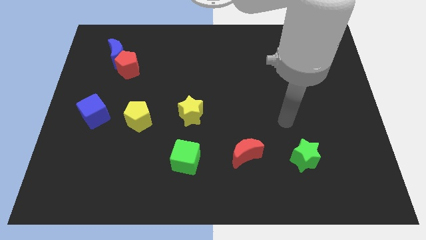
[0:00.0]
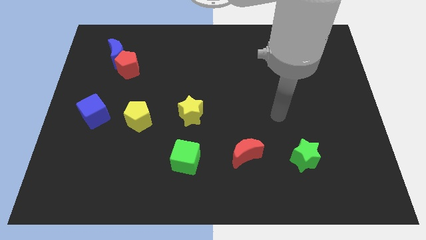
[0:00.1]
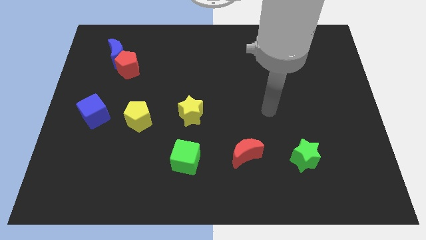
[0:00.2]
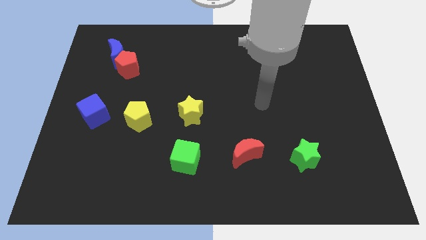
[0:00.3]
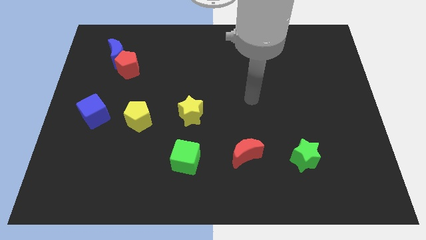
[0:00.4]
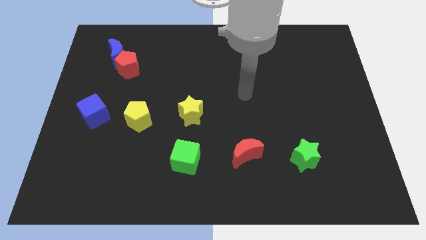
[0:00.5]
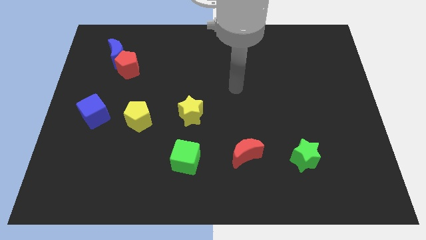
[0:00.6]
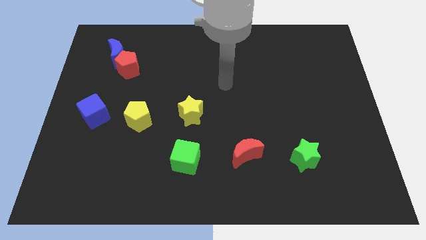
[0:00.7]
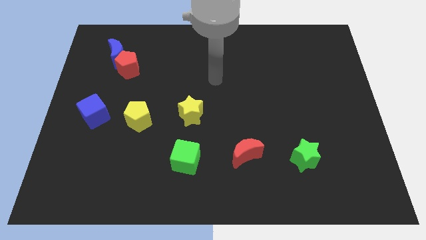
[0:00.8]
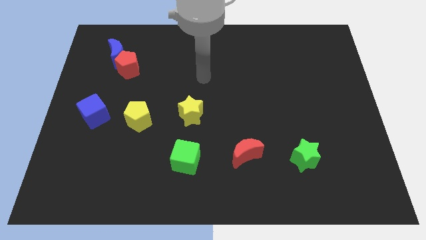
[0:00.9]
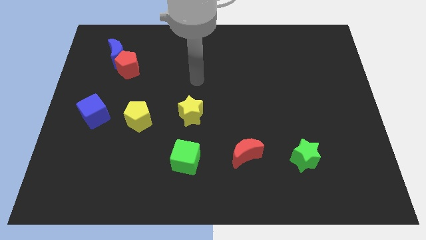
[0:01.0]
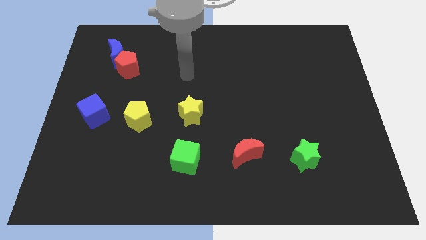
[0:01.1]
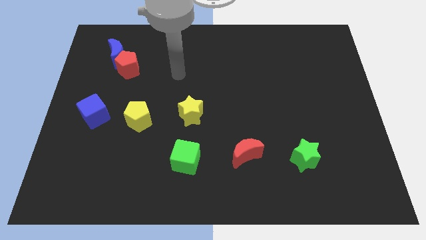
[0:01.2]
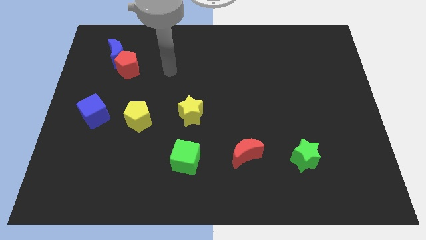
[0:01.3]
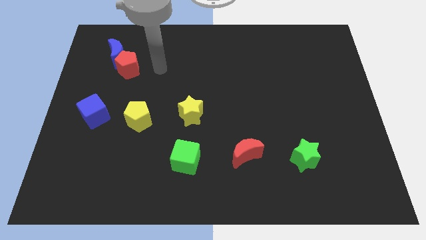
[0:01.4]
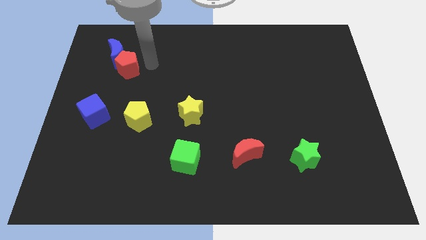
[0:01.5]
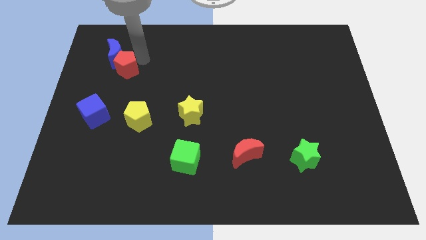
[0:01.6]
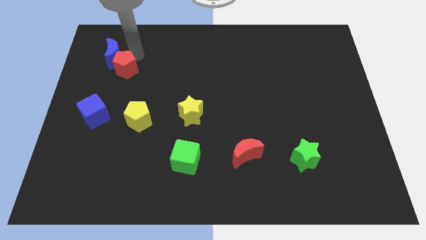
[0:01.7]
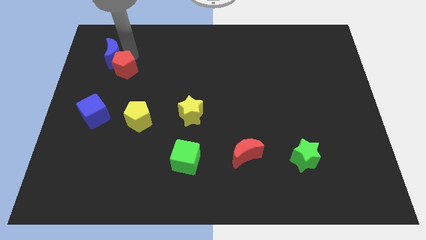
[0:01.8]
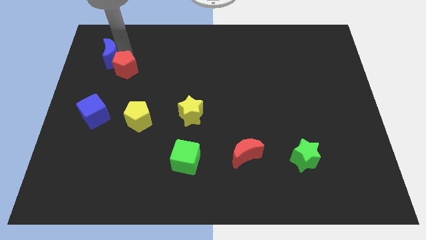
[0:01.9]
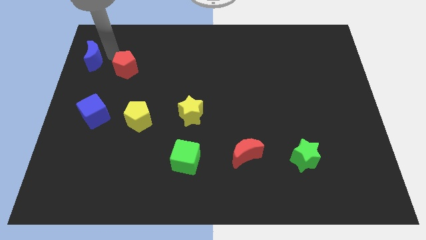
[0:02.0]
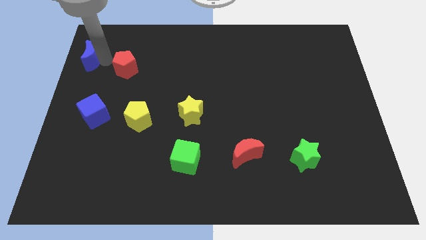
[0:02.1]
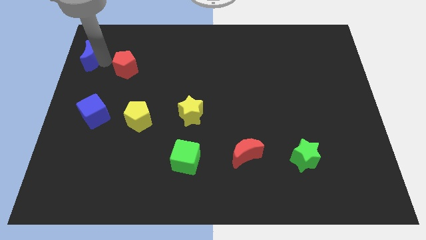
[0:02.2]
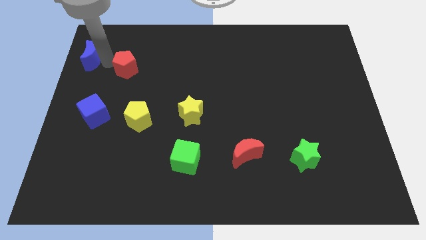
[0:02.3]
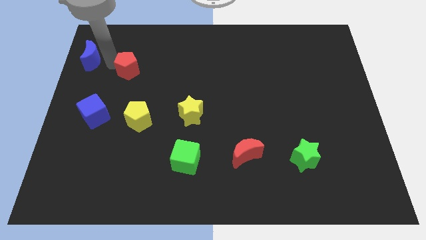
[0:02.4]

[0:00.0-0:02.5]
pull the red pentagon apart from the blue moon

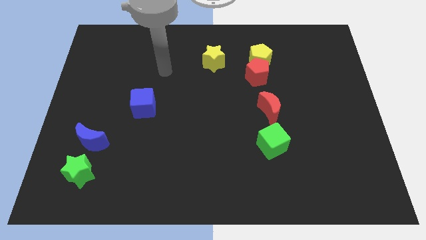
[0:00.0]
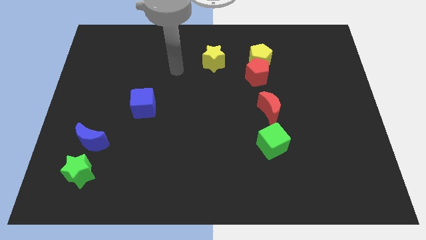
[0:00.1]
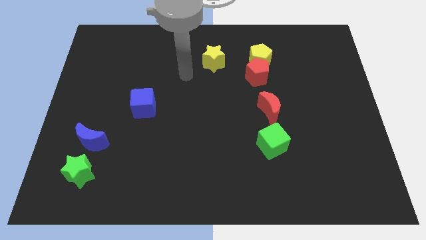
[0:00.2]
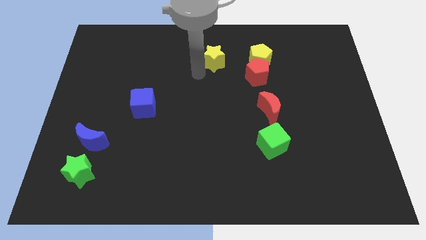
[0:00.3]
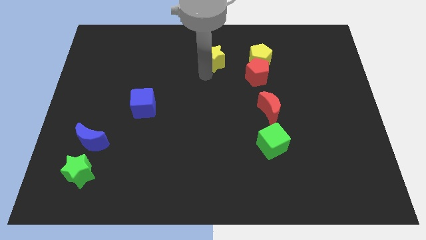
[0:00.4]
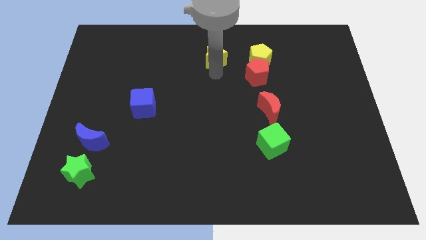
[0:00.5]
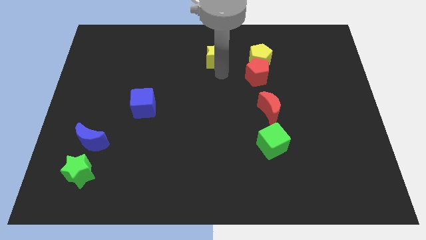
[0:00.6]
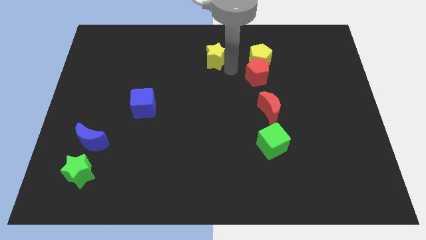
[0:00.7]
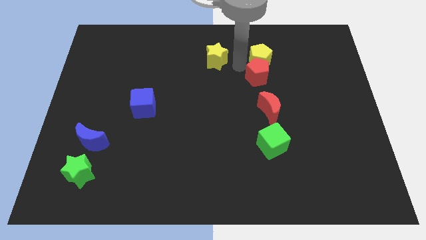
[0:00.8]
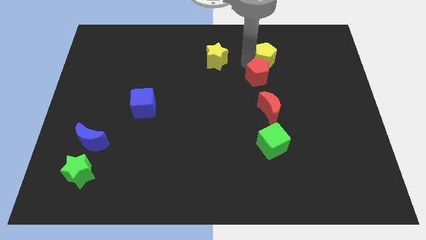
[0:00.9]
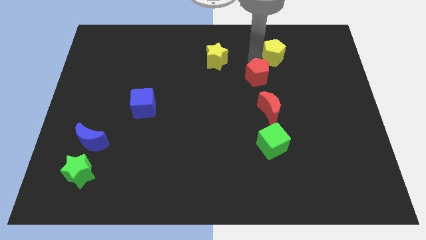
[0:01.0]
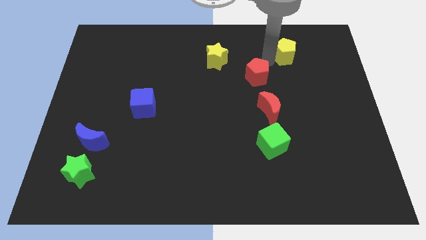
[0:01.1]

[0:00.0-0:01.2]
move the red pentagon away from the yellow pentagon

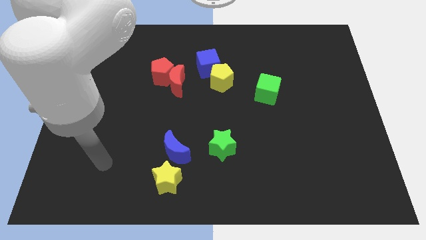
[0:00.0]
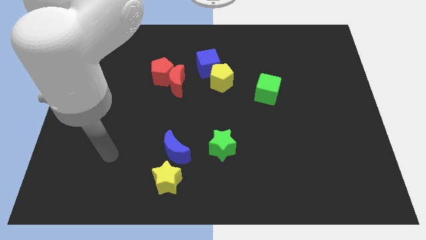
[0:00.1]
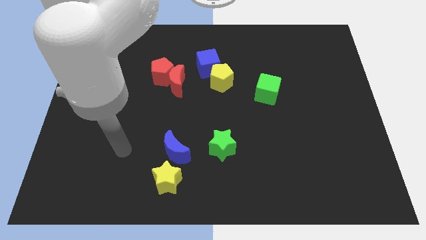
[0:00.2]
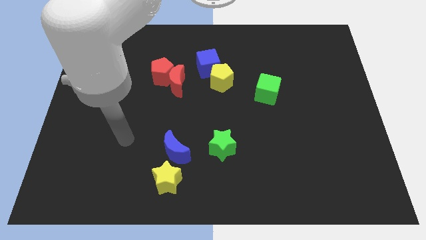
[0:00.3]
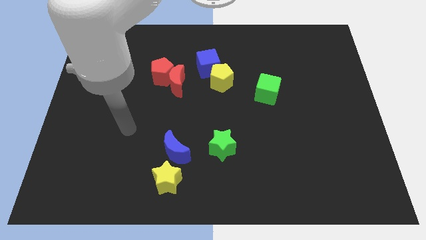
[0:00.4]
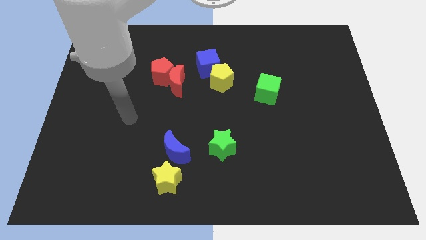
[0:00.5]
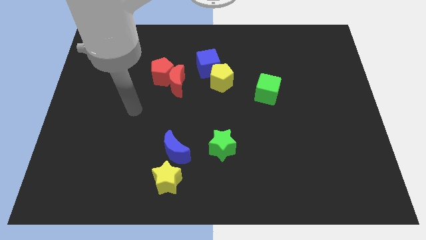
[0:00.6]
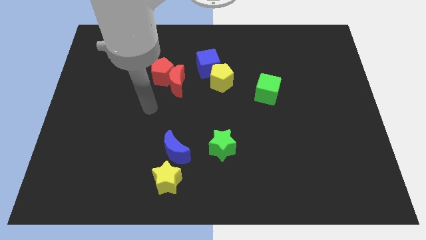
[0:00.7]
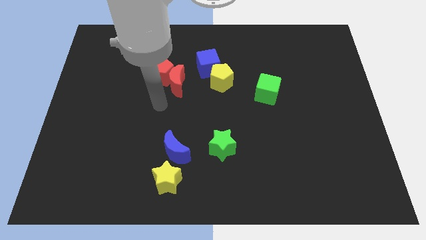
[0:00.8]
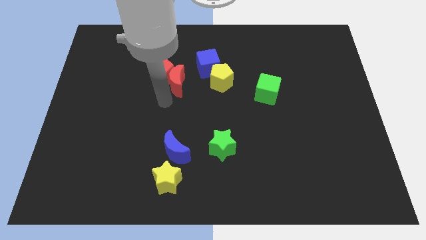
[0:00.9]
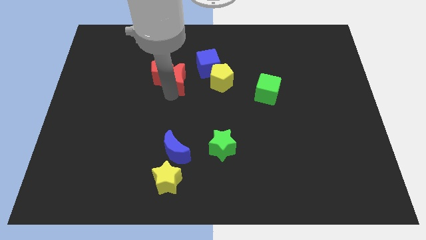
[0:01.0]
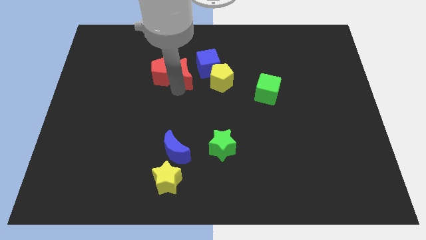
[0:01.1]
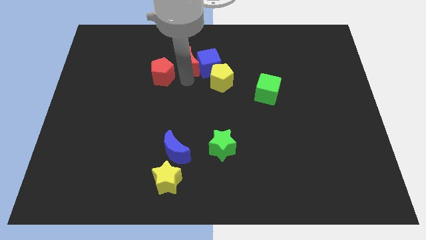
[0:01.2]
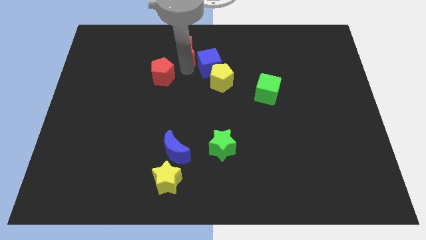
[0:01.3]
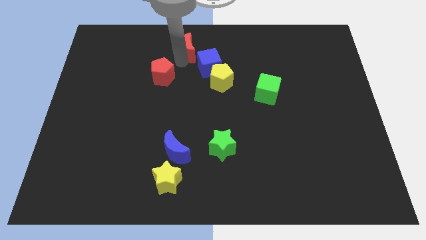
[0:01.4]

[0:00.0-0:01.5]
separate the red pentagon from the red moon

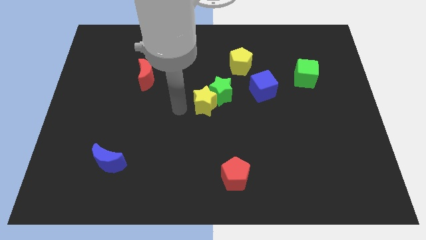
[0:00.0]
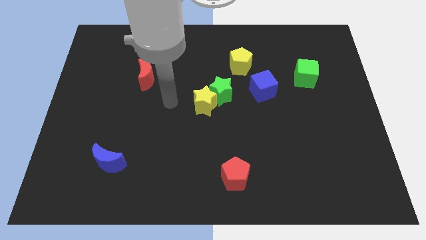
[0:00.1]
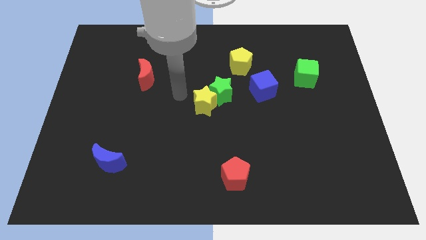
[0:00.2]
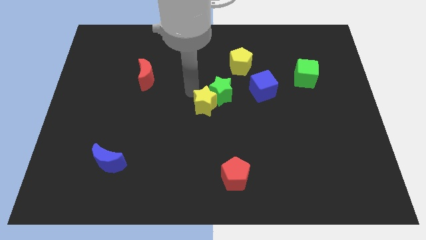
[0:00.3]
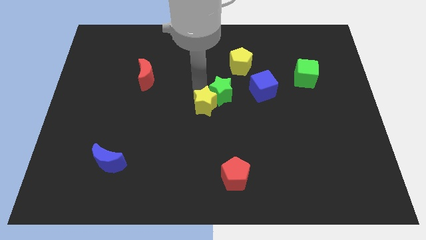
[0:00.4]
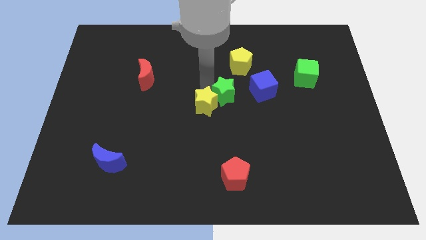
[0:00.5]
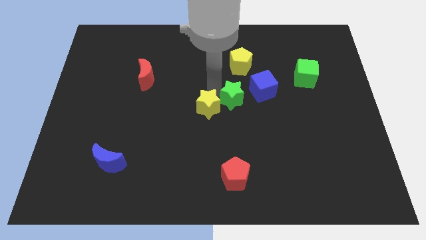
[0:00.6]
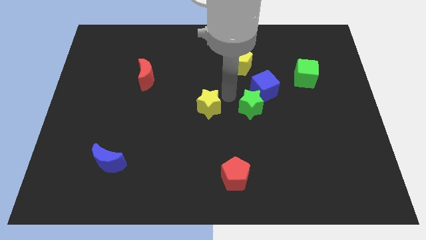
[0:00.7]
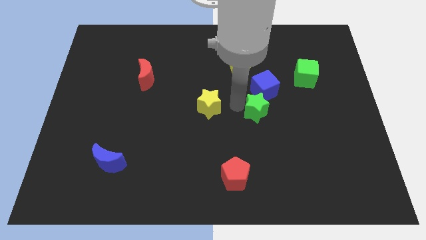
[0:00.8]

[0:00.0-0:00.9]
move the yellow star away from the green star

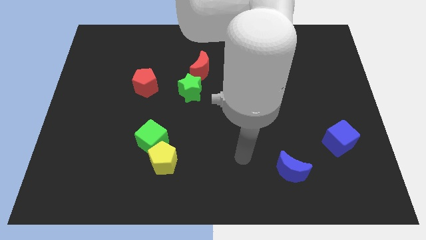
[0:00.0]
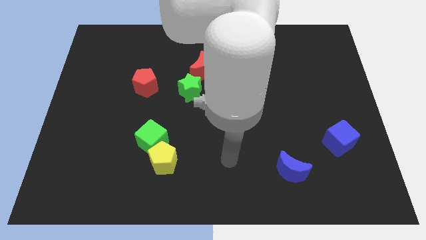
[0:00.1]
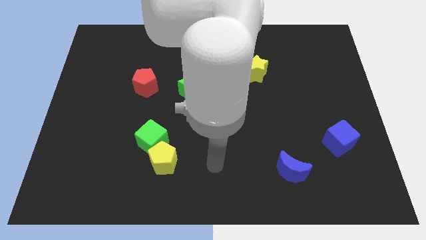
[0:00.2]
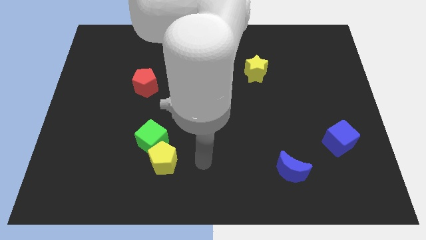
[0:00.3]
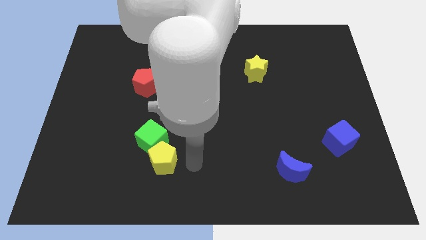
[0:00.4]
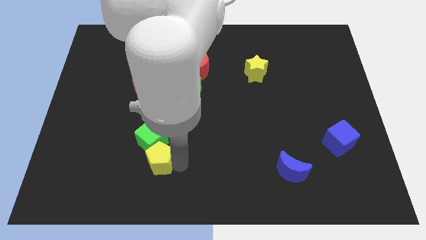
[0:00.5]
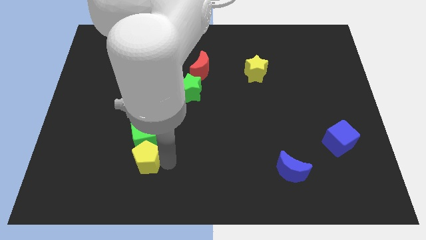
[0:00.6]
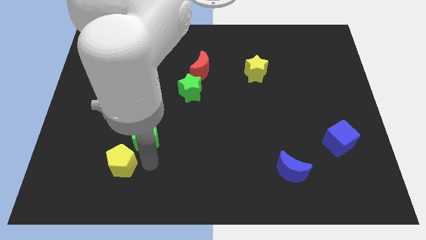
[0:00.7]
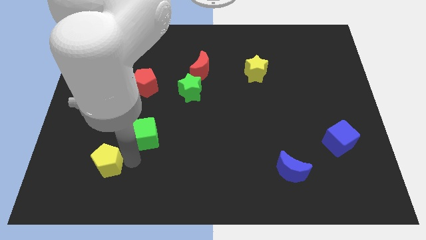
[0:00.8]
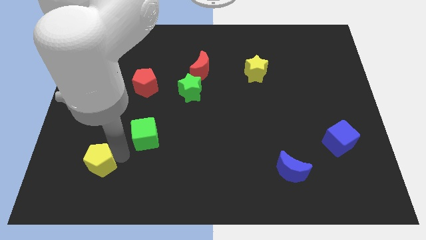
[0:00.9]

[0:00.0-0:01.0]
pull the green cube apart from the yellow pentagon

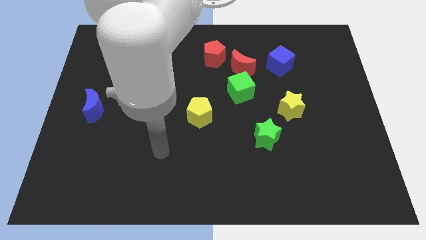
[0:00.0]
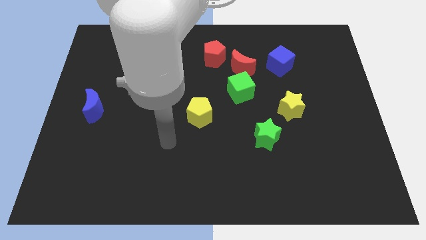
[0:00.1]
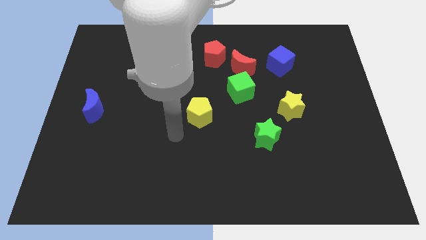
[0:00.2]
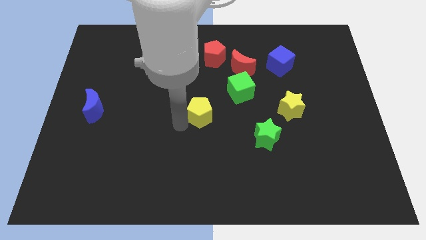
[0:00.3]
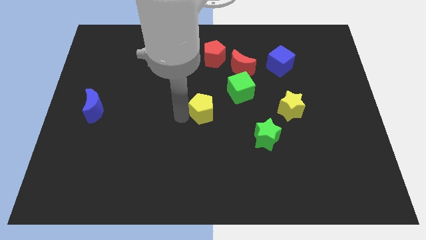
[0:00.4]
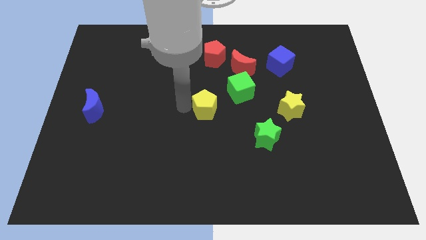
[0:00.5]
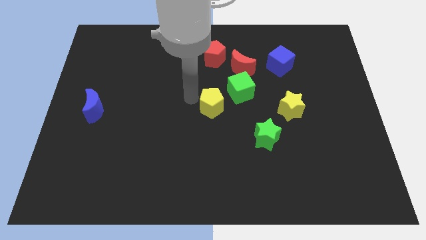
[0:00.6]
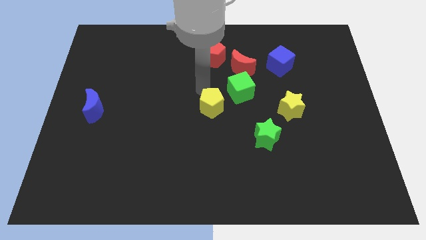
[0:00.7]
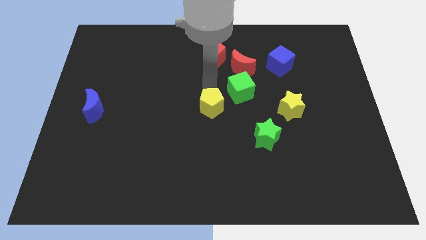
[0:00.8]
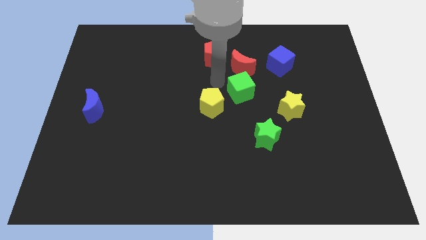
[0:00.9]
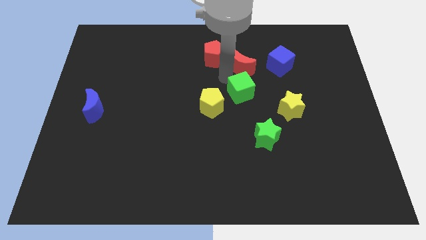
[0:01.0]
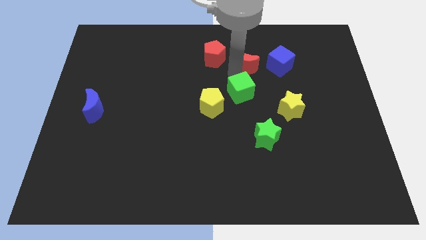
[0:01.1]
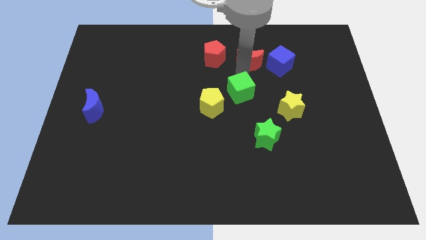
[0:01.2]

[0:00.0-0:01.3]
separate the green cube from the red moon

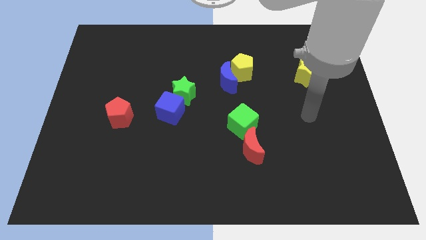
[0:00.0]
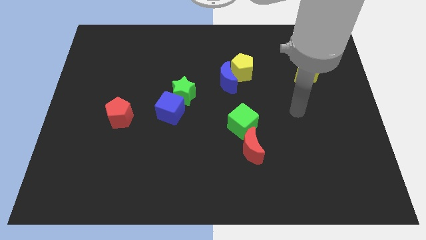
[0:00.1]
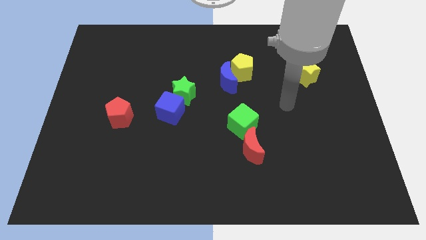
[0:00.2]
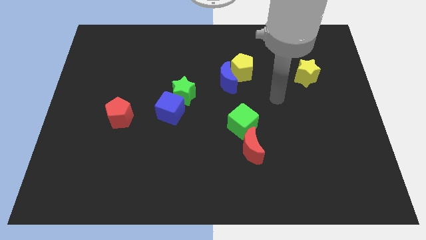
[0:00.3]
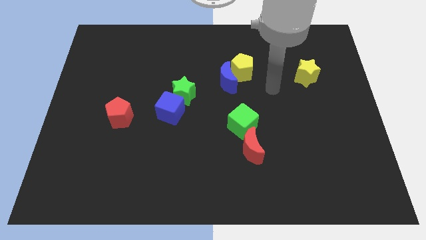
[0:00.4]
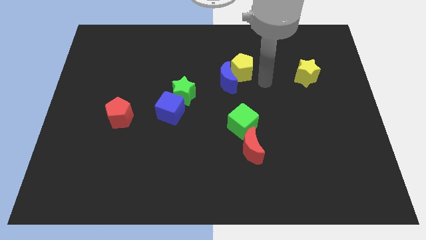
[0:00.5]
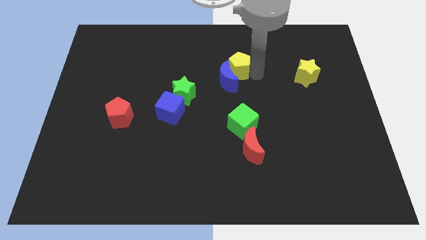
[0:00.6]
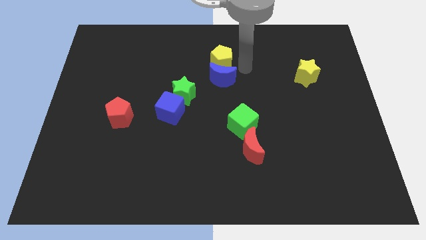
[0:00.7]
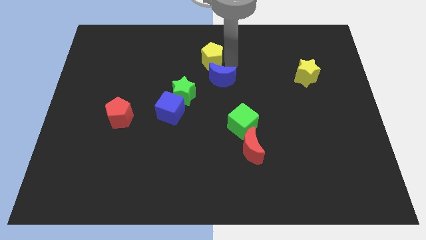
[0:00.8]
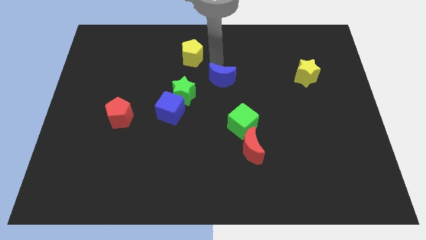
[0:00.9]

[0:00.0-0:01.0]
move the blue moon away from the yellow pentagon
